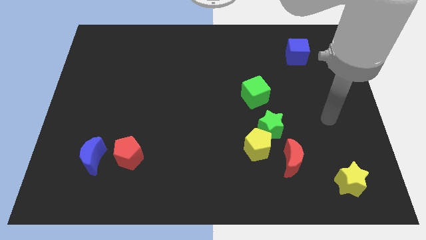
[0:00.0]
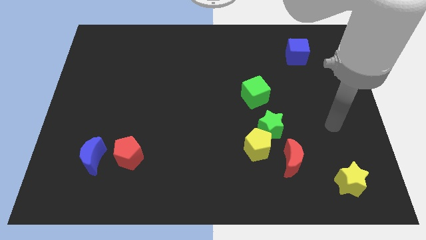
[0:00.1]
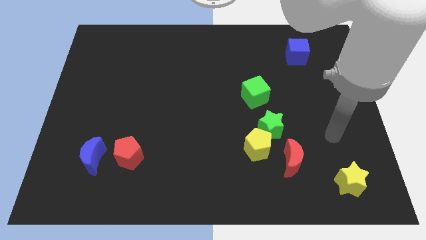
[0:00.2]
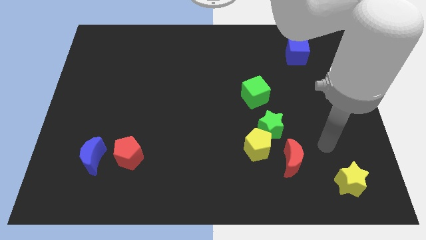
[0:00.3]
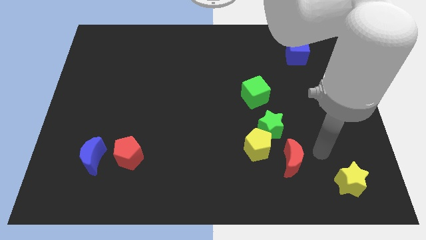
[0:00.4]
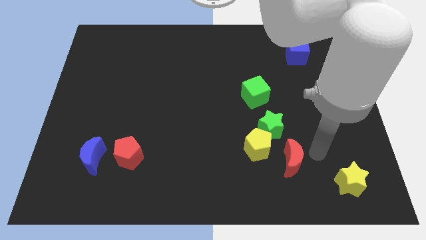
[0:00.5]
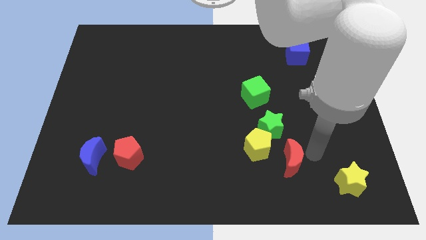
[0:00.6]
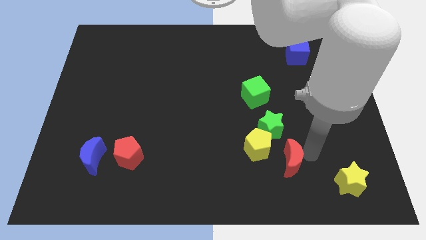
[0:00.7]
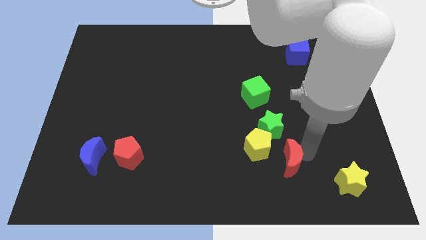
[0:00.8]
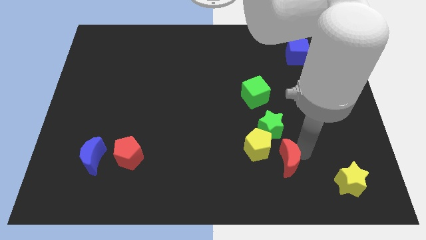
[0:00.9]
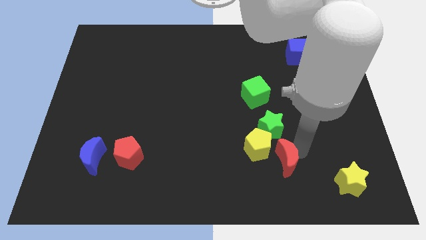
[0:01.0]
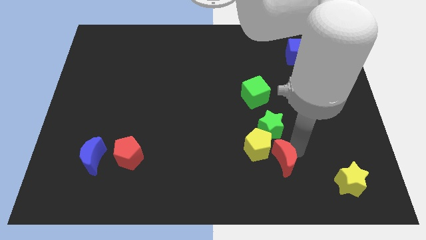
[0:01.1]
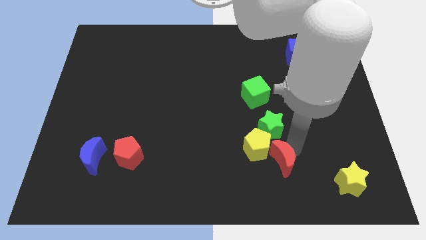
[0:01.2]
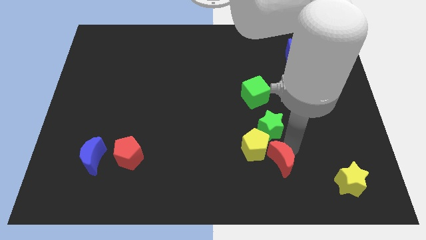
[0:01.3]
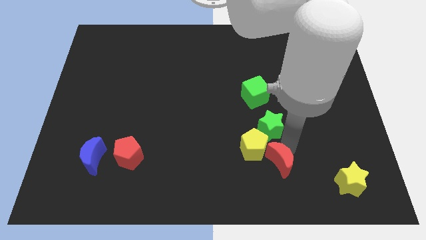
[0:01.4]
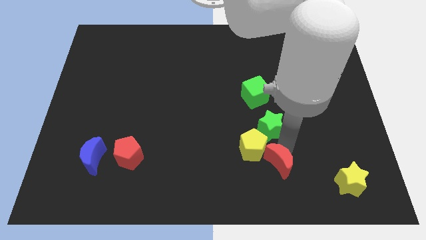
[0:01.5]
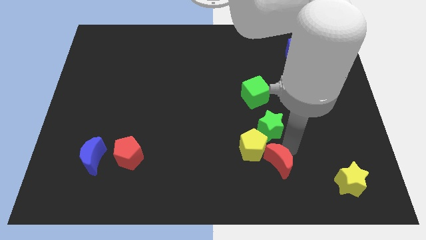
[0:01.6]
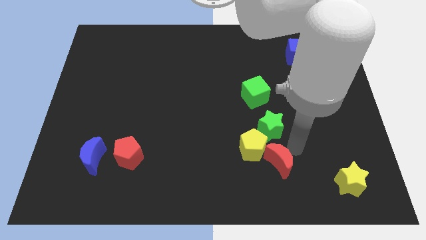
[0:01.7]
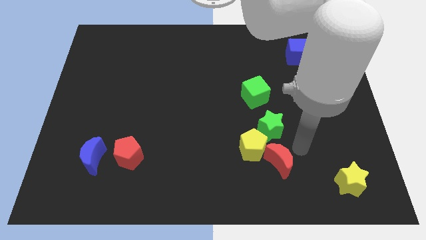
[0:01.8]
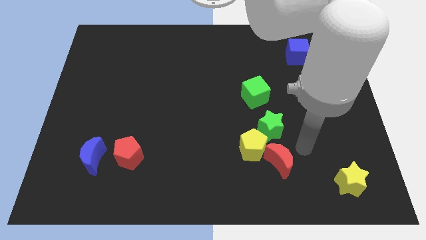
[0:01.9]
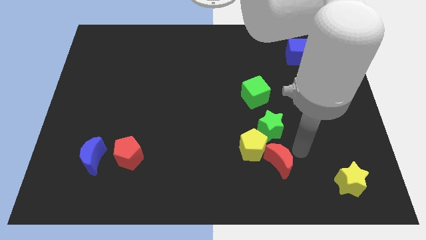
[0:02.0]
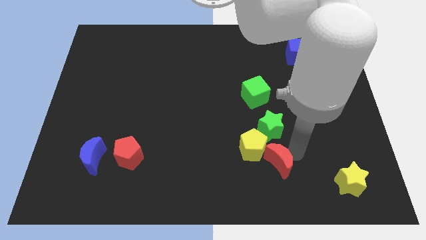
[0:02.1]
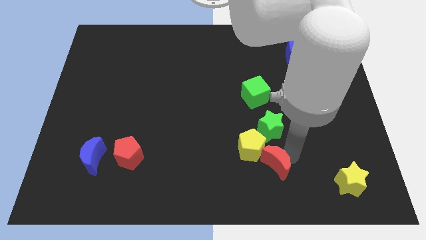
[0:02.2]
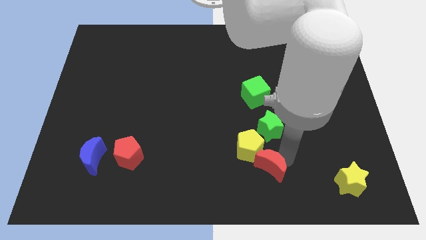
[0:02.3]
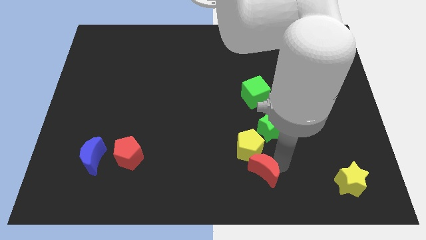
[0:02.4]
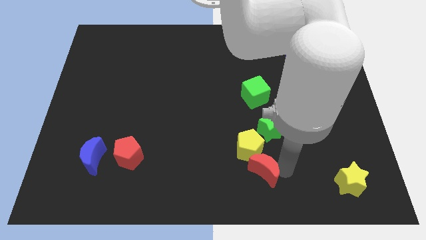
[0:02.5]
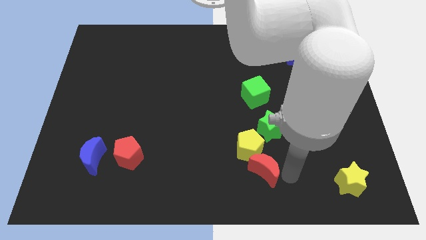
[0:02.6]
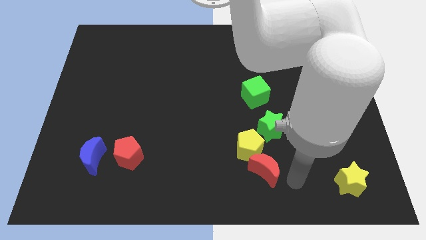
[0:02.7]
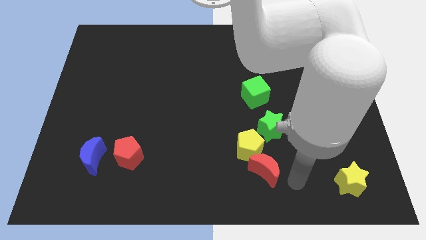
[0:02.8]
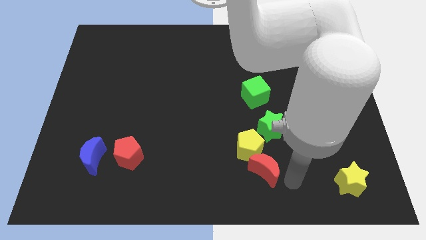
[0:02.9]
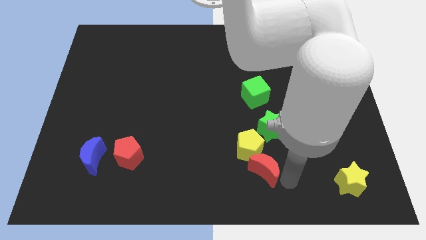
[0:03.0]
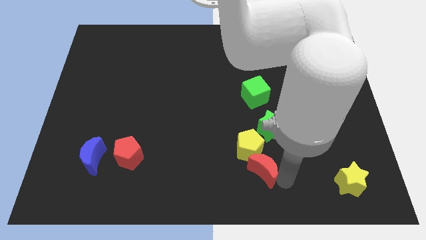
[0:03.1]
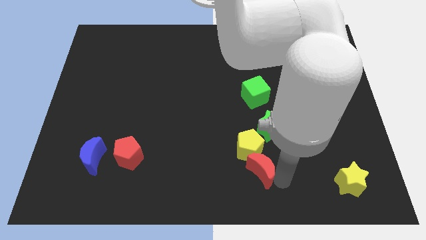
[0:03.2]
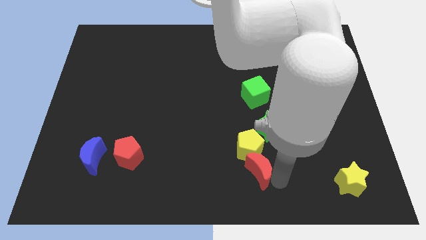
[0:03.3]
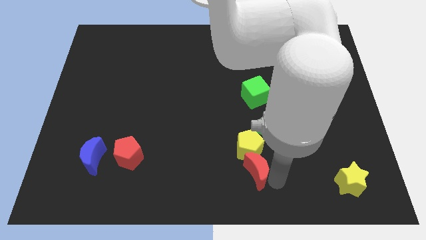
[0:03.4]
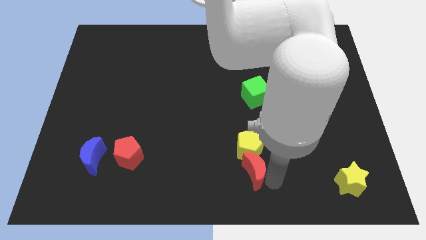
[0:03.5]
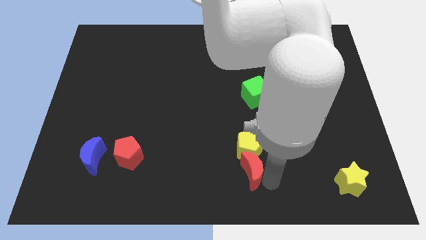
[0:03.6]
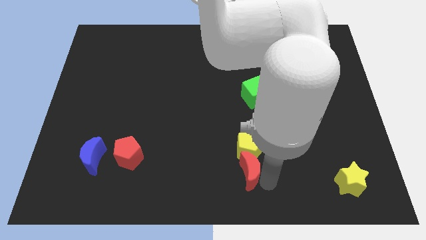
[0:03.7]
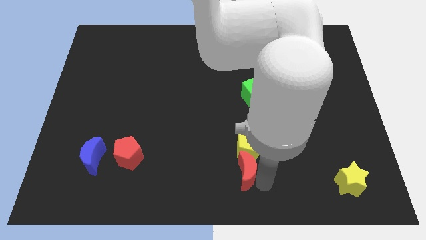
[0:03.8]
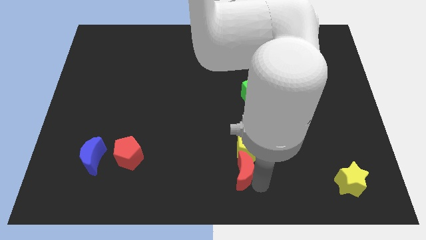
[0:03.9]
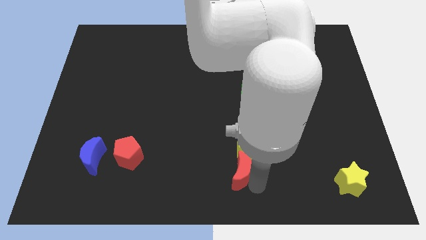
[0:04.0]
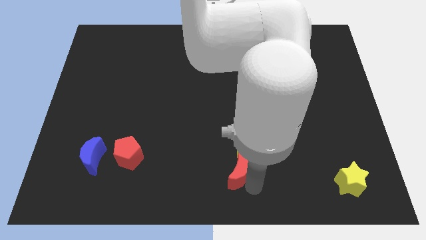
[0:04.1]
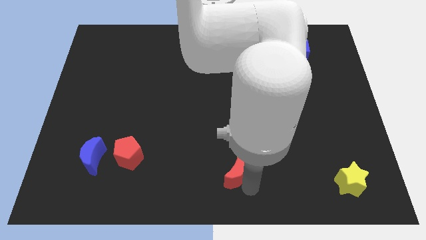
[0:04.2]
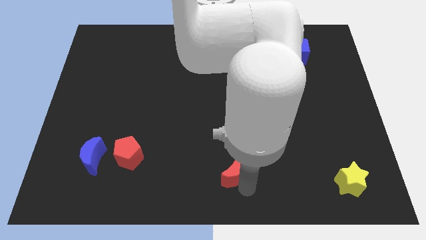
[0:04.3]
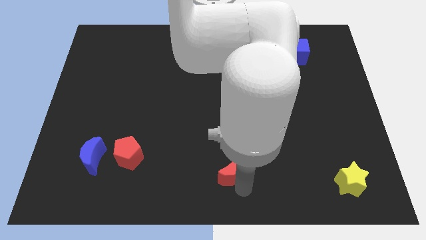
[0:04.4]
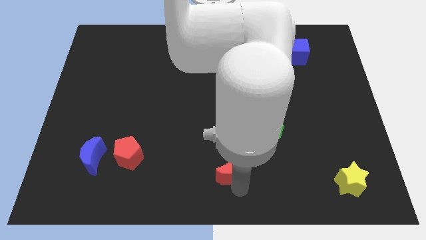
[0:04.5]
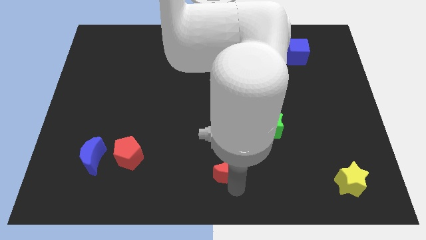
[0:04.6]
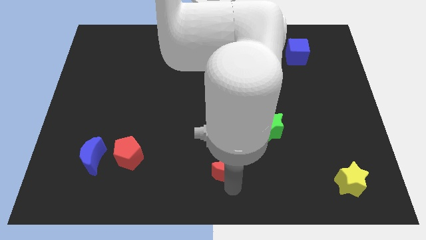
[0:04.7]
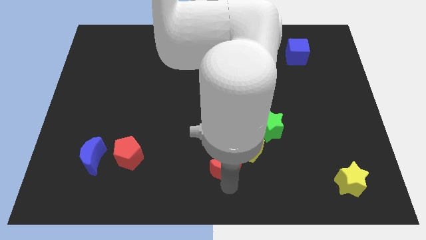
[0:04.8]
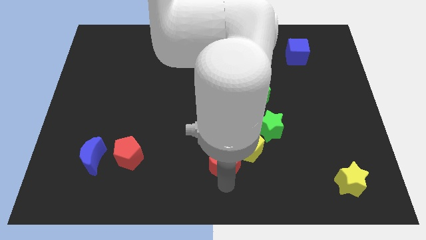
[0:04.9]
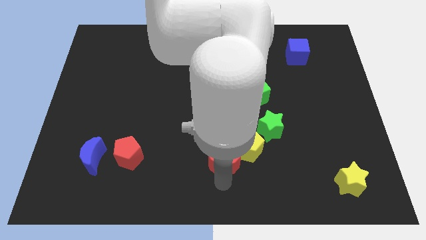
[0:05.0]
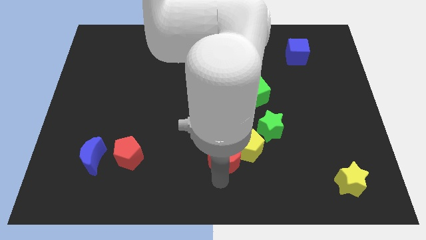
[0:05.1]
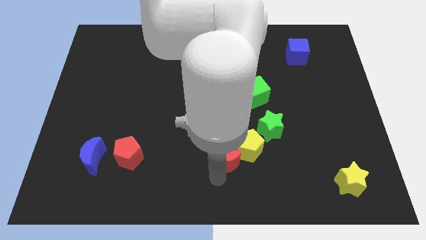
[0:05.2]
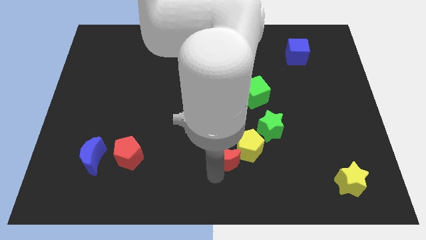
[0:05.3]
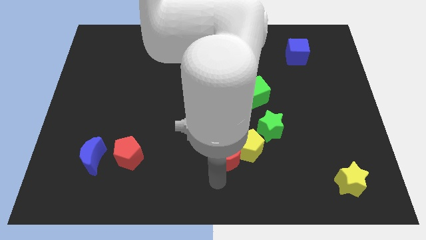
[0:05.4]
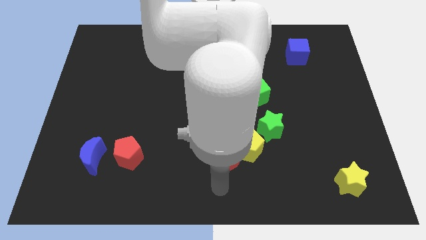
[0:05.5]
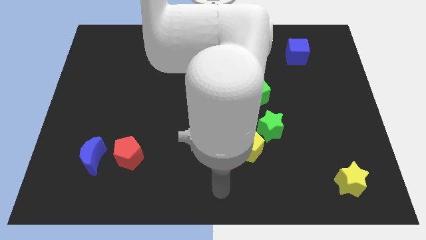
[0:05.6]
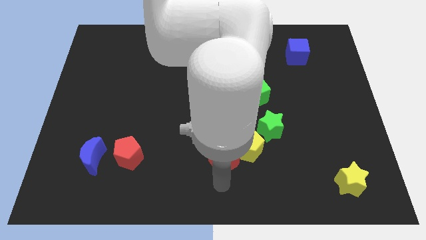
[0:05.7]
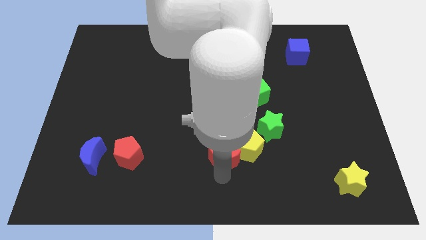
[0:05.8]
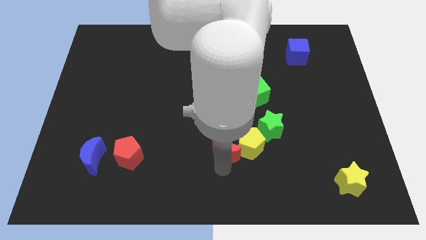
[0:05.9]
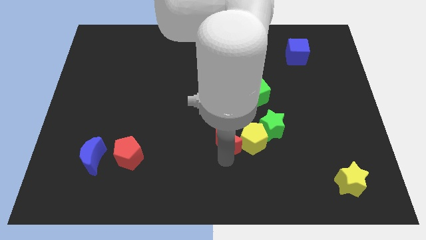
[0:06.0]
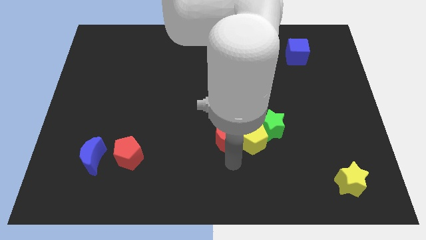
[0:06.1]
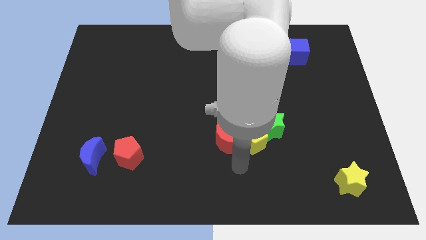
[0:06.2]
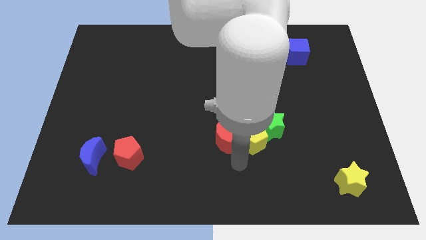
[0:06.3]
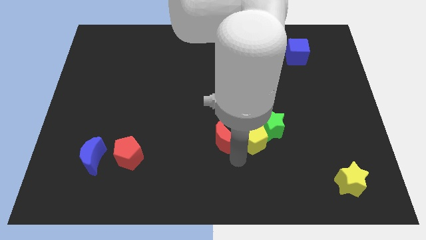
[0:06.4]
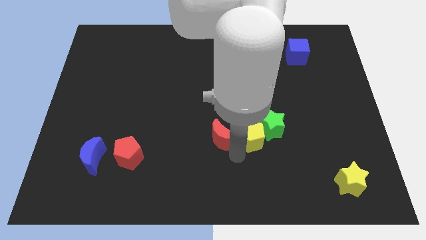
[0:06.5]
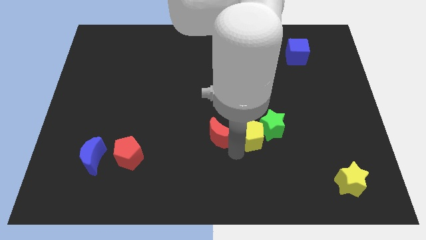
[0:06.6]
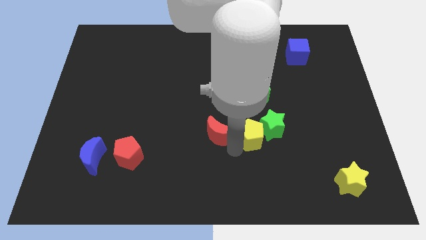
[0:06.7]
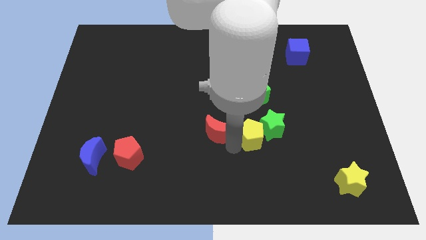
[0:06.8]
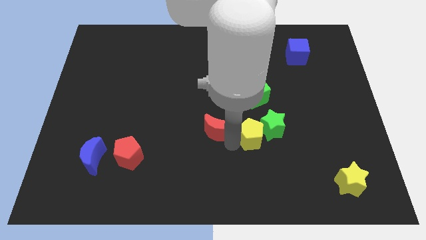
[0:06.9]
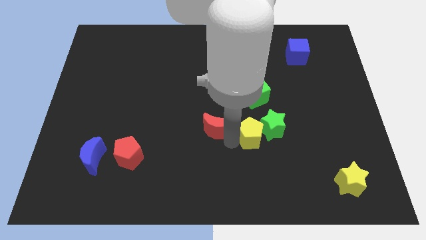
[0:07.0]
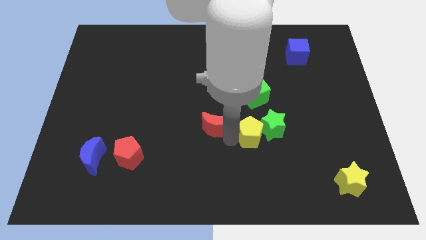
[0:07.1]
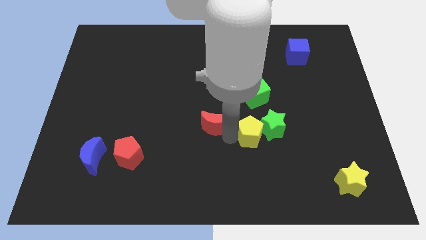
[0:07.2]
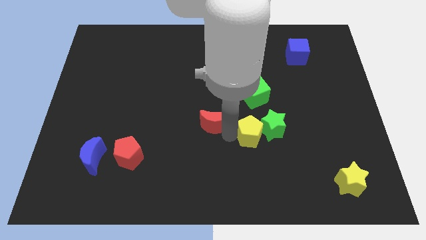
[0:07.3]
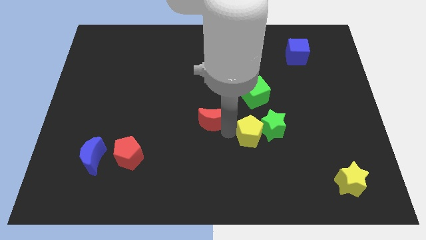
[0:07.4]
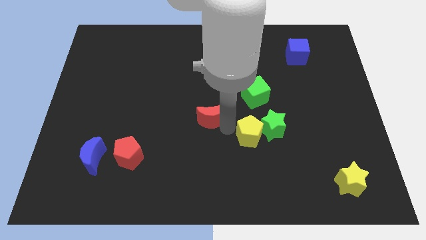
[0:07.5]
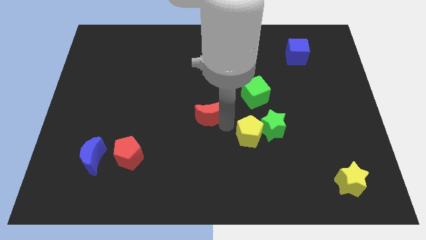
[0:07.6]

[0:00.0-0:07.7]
move the red moon upwards and then to the left

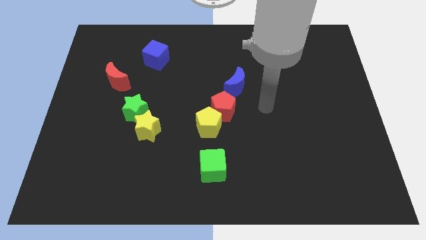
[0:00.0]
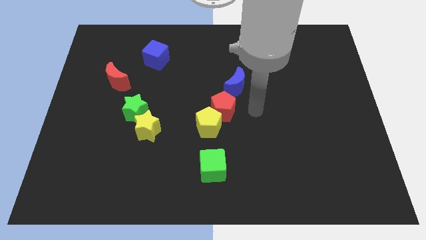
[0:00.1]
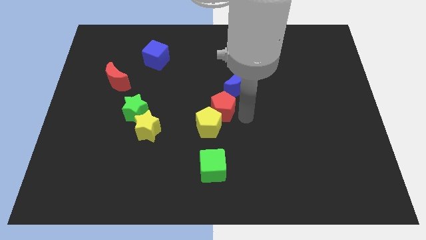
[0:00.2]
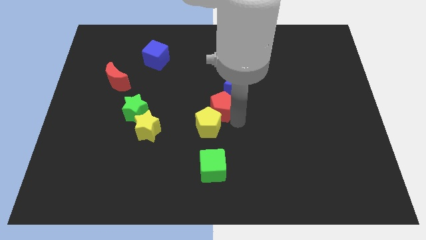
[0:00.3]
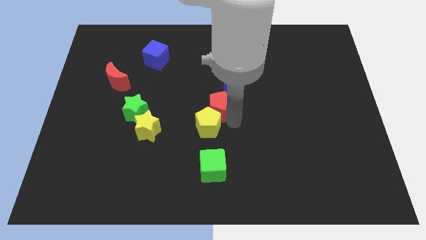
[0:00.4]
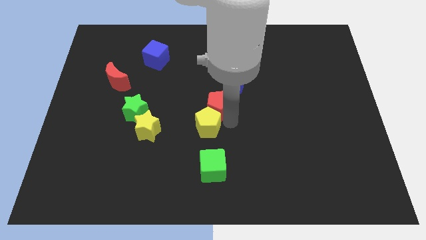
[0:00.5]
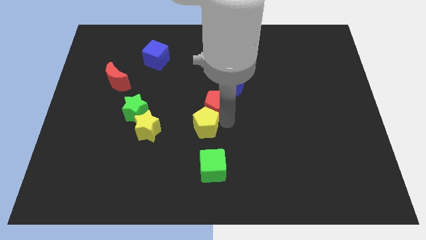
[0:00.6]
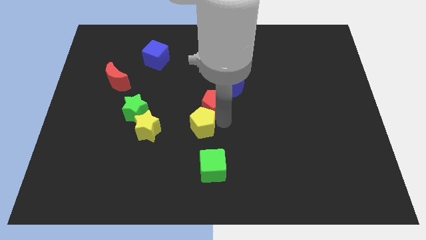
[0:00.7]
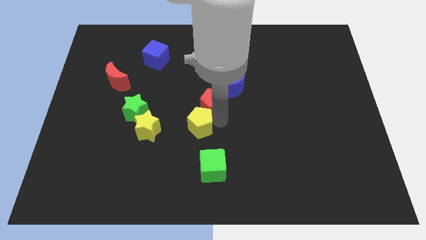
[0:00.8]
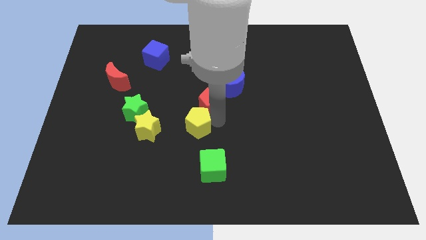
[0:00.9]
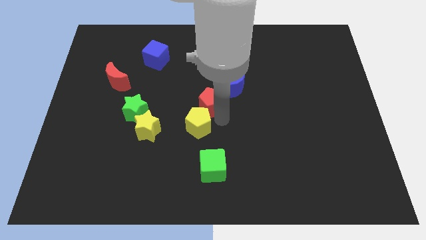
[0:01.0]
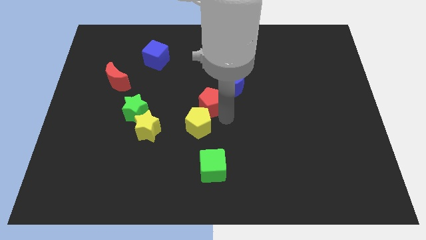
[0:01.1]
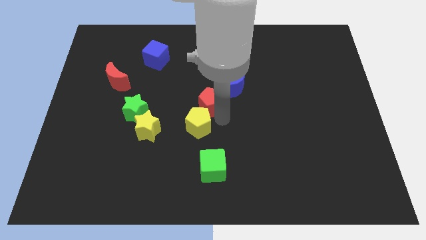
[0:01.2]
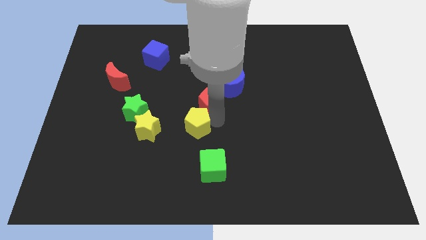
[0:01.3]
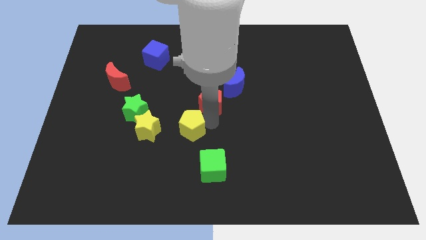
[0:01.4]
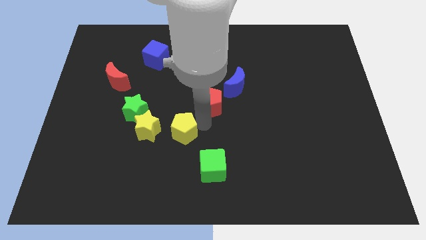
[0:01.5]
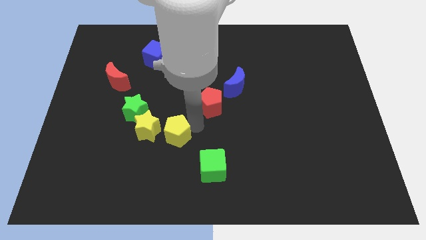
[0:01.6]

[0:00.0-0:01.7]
move the yellow pentagon to the left slightly
